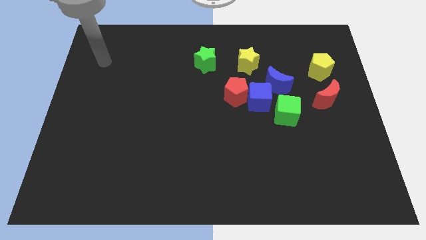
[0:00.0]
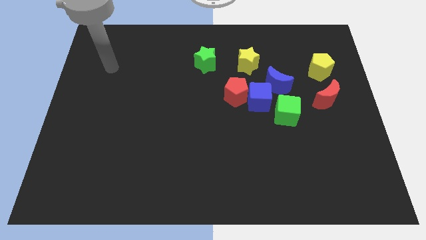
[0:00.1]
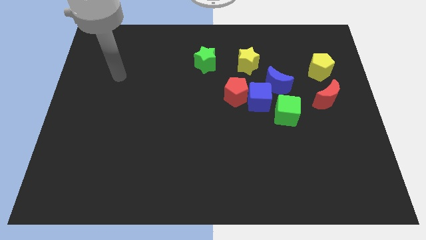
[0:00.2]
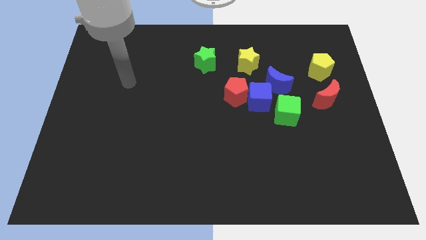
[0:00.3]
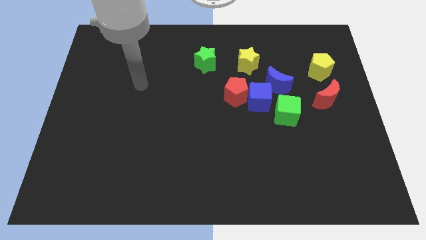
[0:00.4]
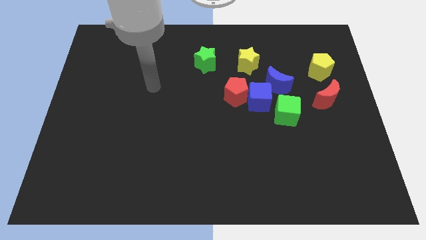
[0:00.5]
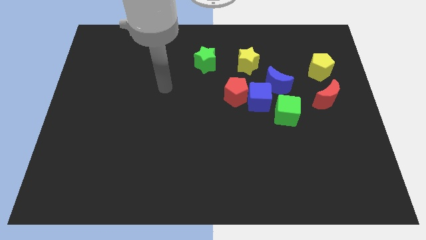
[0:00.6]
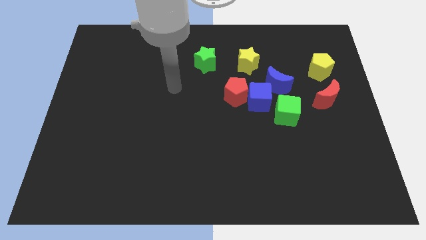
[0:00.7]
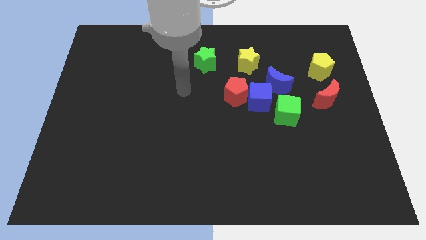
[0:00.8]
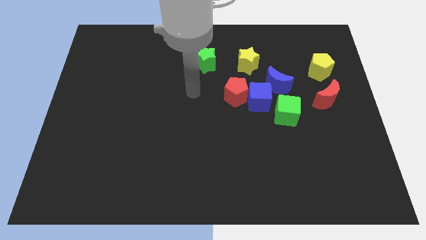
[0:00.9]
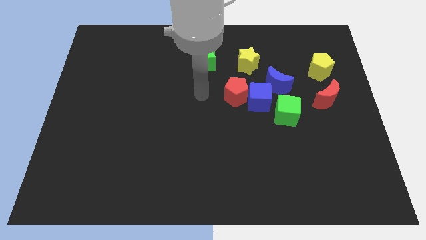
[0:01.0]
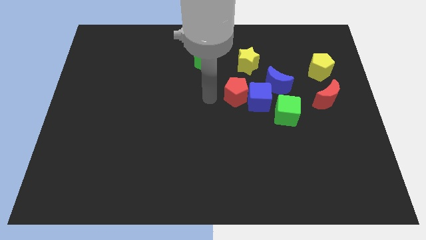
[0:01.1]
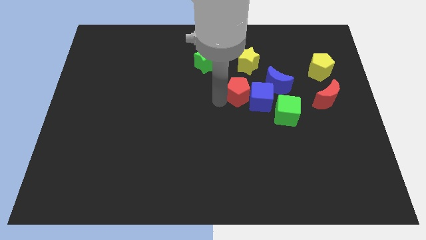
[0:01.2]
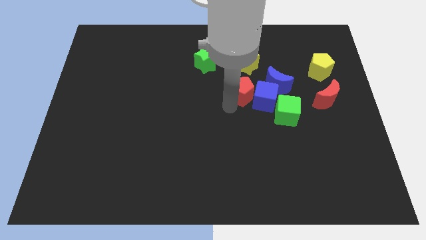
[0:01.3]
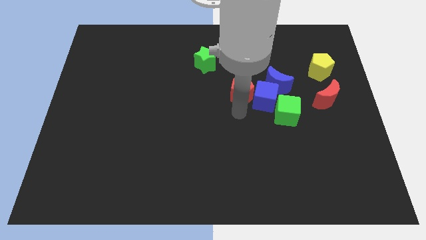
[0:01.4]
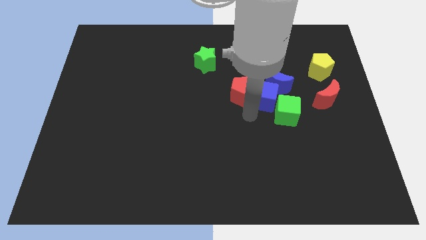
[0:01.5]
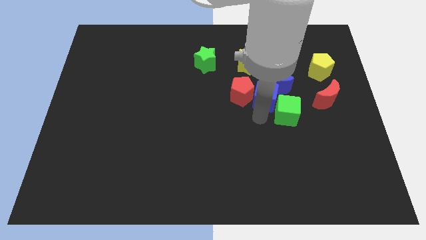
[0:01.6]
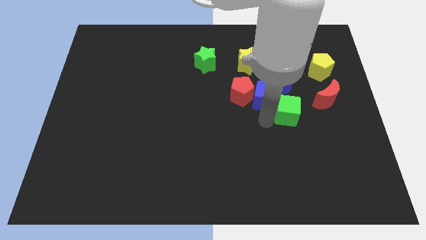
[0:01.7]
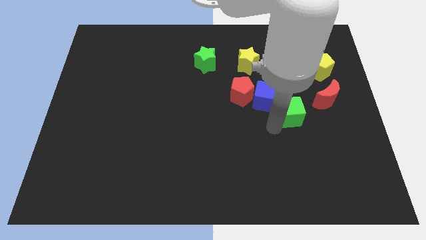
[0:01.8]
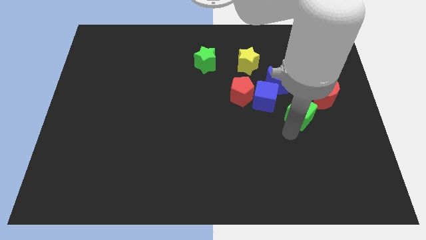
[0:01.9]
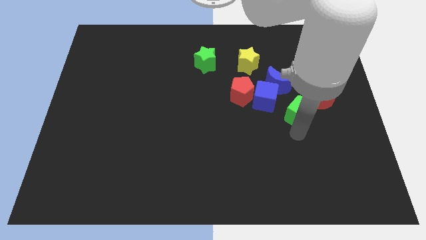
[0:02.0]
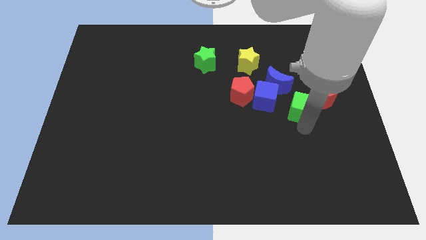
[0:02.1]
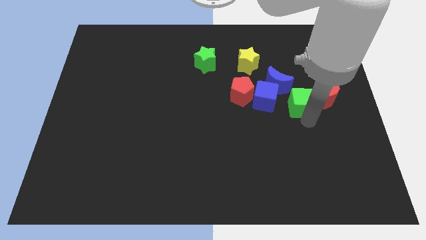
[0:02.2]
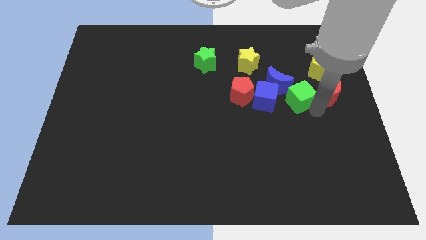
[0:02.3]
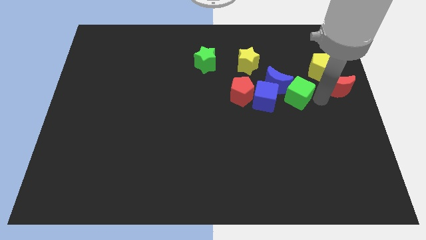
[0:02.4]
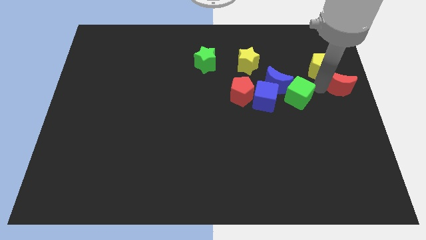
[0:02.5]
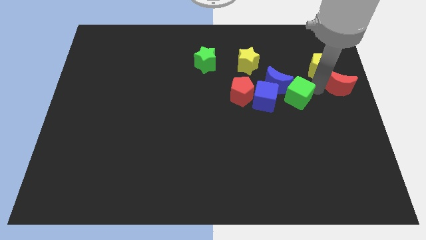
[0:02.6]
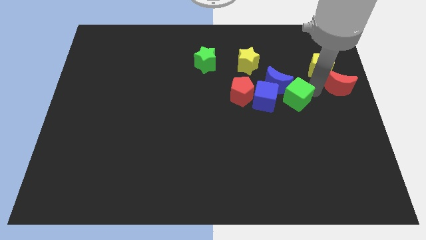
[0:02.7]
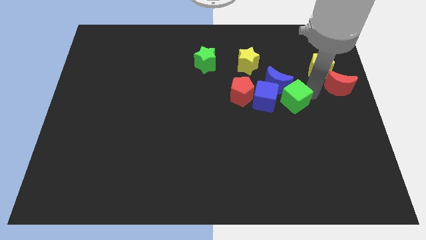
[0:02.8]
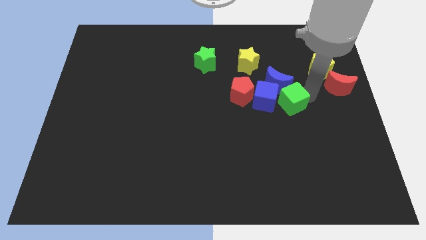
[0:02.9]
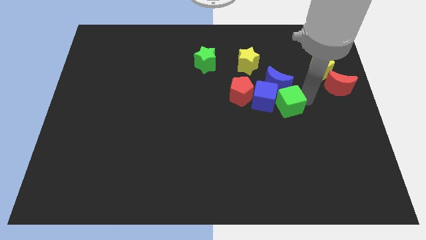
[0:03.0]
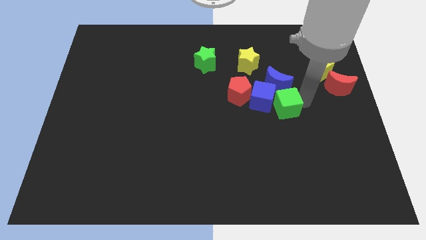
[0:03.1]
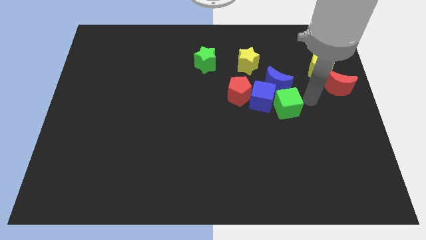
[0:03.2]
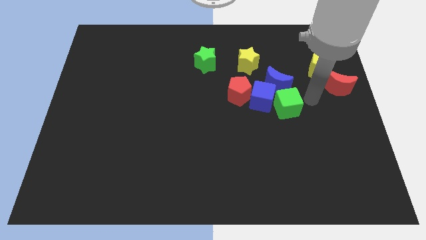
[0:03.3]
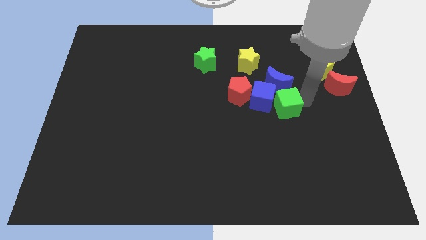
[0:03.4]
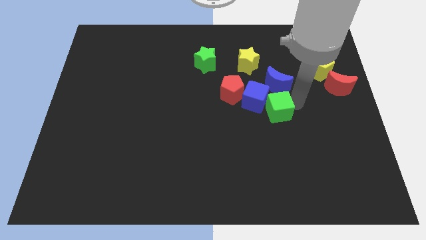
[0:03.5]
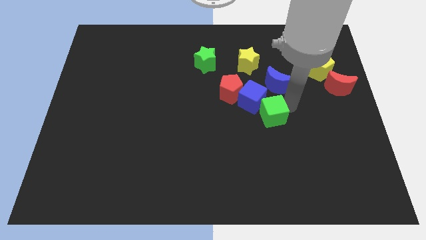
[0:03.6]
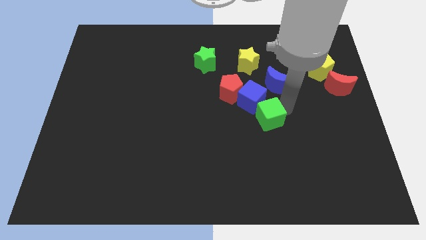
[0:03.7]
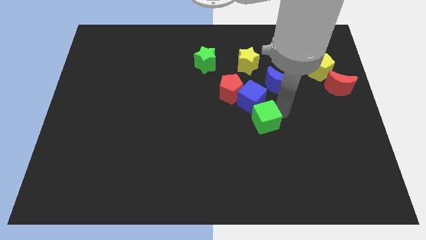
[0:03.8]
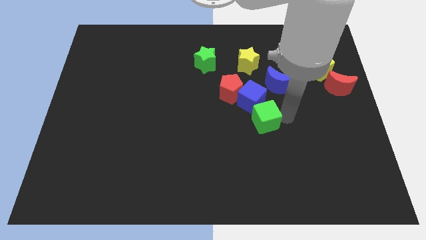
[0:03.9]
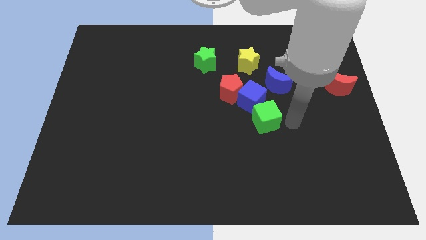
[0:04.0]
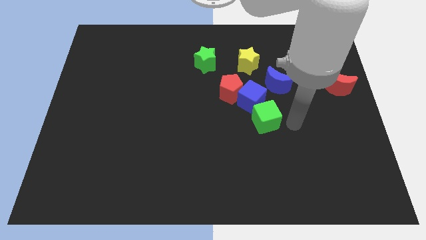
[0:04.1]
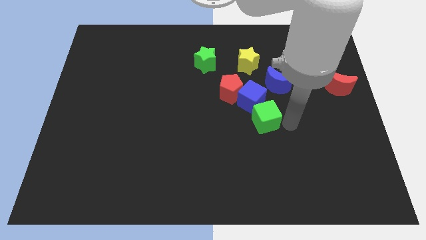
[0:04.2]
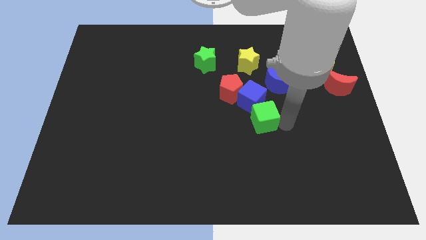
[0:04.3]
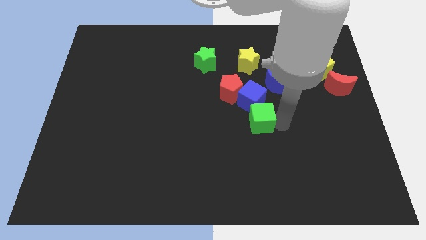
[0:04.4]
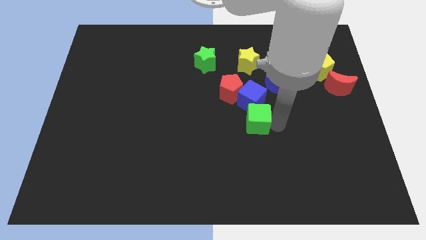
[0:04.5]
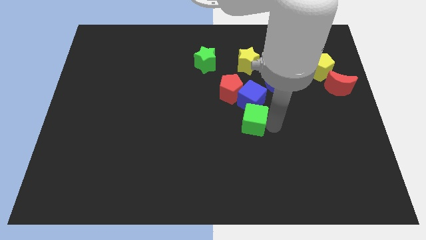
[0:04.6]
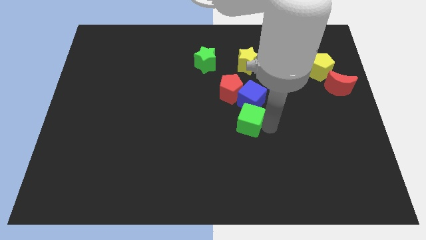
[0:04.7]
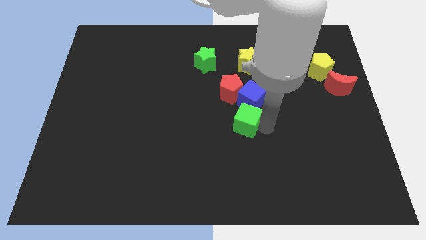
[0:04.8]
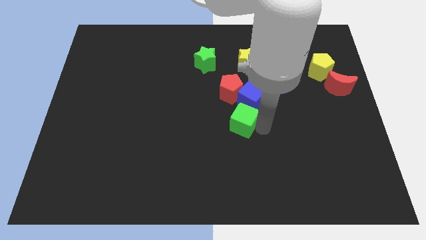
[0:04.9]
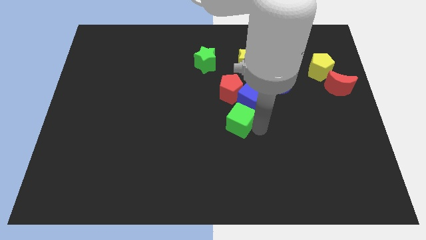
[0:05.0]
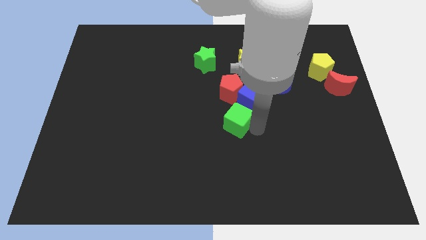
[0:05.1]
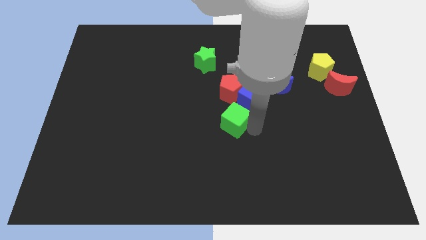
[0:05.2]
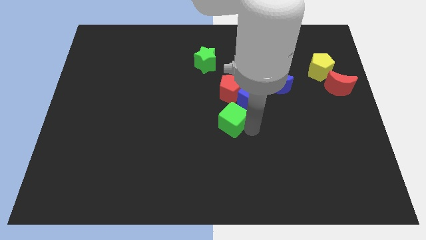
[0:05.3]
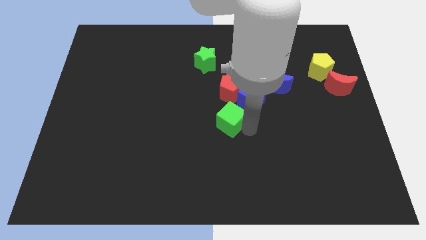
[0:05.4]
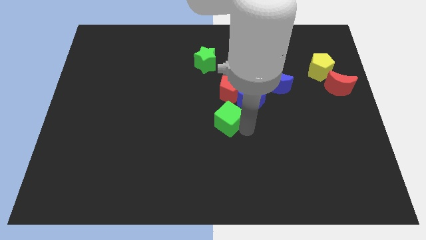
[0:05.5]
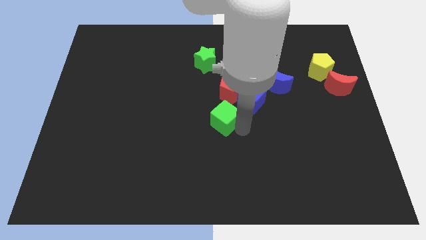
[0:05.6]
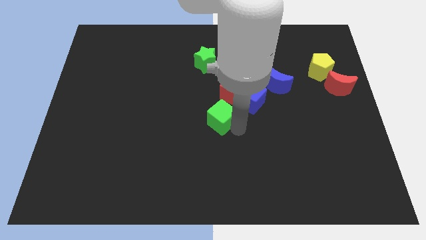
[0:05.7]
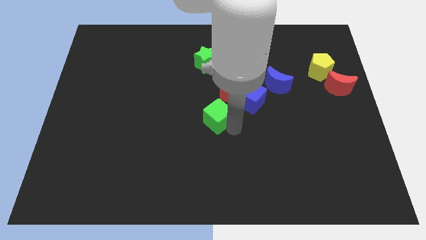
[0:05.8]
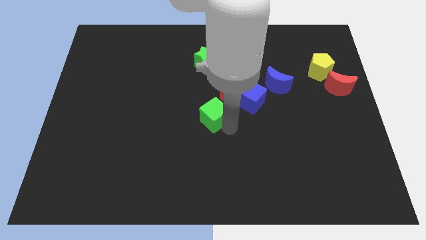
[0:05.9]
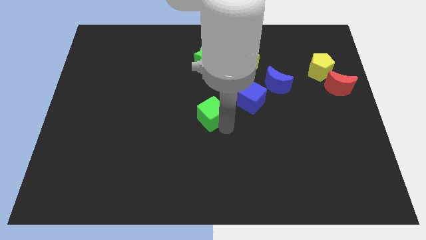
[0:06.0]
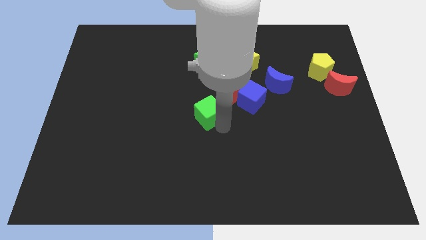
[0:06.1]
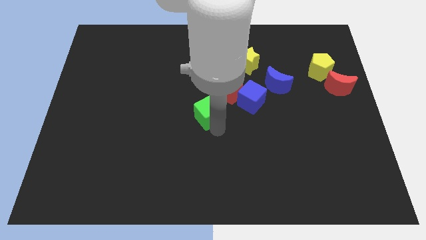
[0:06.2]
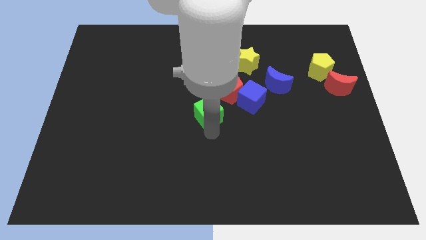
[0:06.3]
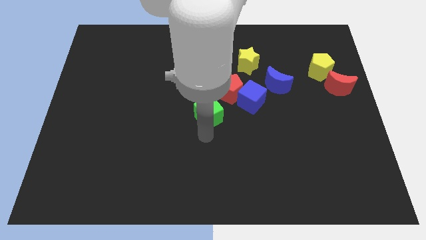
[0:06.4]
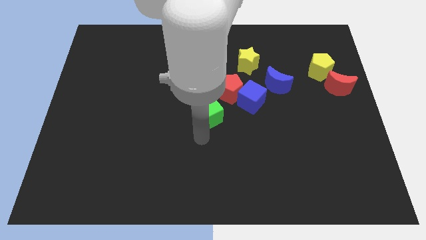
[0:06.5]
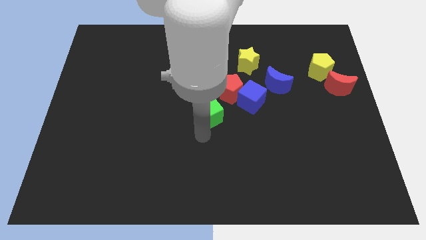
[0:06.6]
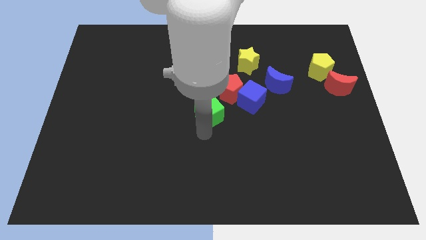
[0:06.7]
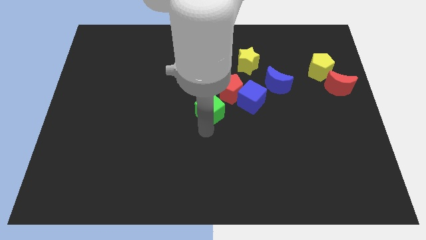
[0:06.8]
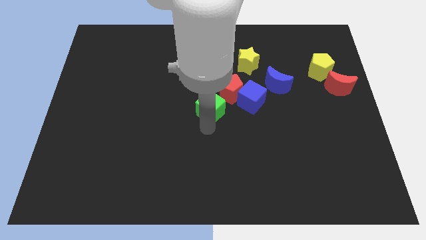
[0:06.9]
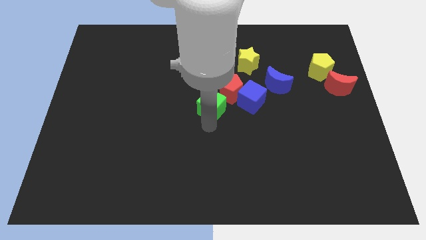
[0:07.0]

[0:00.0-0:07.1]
slide the green cube upwards and left a bit

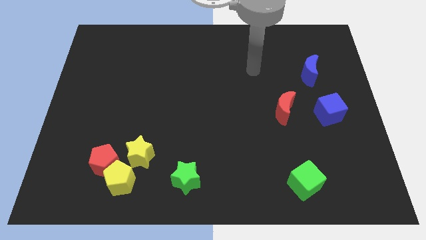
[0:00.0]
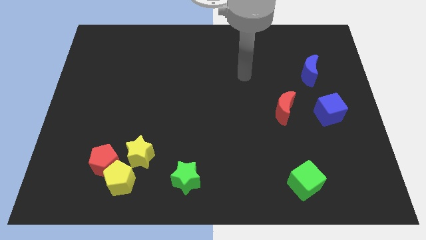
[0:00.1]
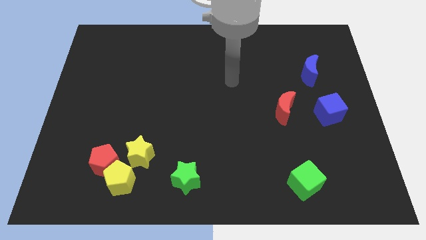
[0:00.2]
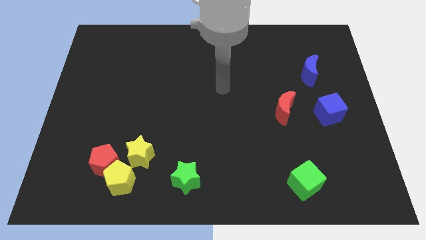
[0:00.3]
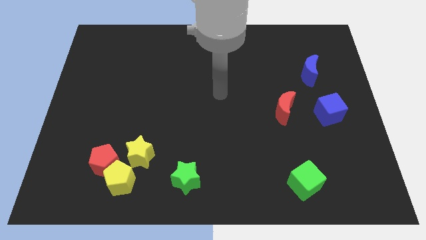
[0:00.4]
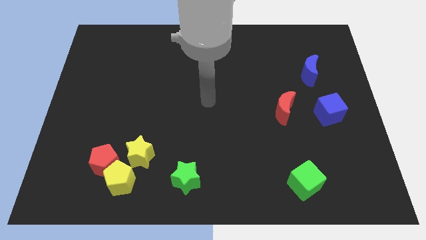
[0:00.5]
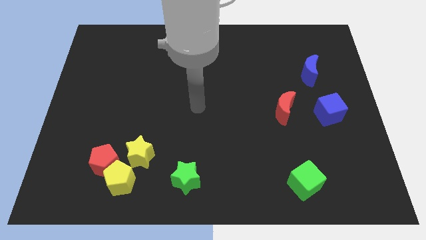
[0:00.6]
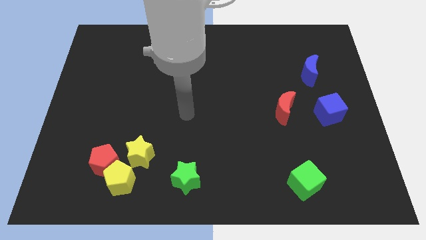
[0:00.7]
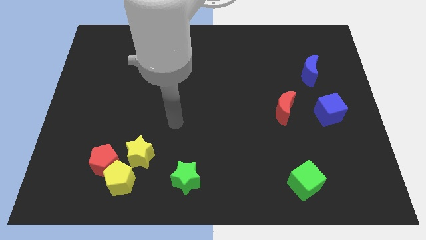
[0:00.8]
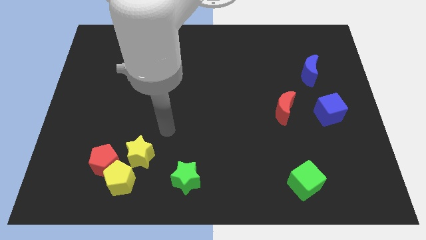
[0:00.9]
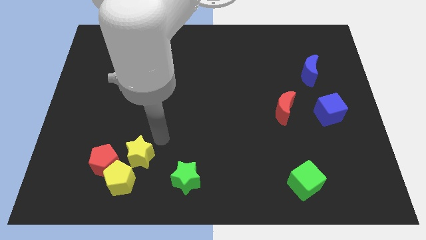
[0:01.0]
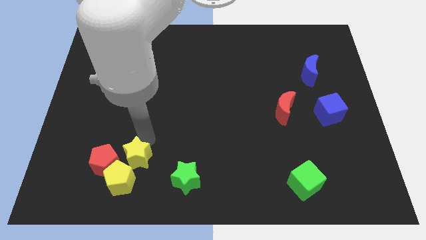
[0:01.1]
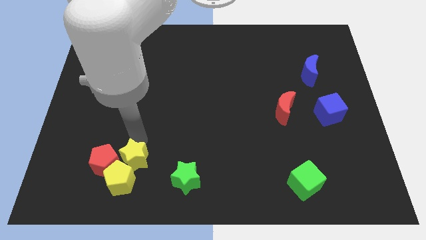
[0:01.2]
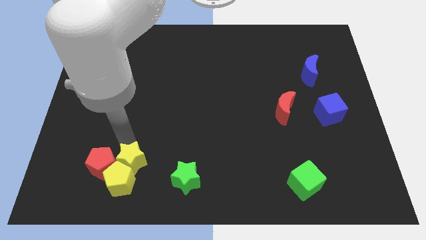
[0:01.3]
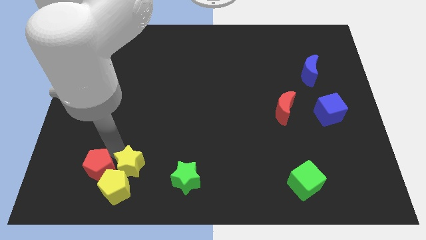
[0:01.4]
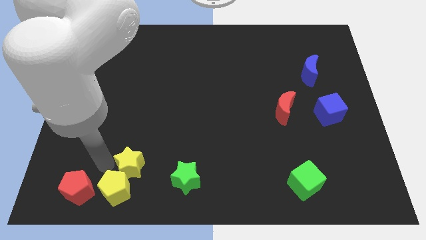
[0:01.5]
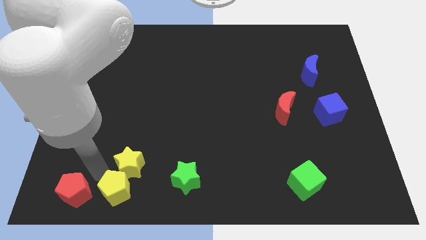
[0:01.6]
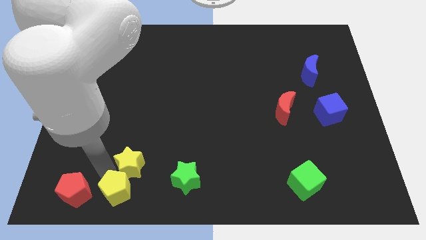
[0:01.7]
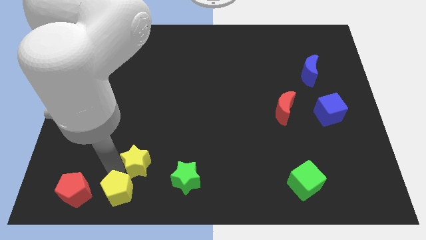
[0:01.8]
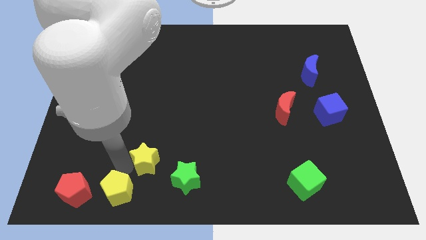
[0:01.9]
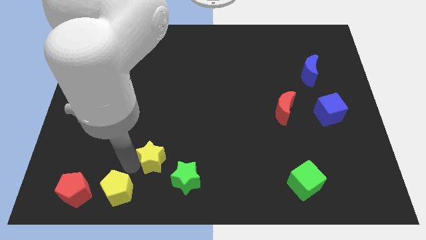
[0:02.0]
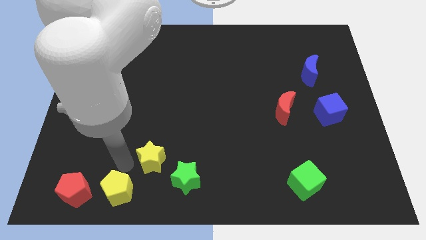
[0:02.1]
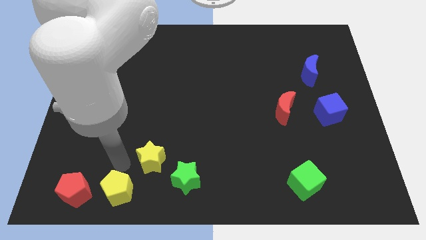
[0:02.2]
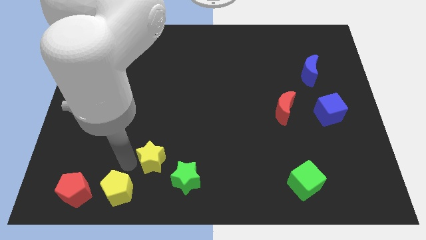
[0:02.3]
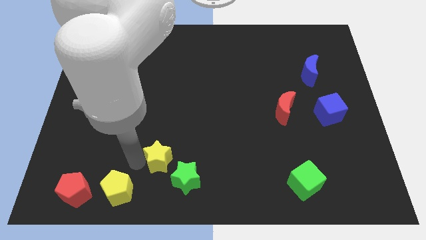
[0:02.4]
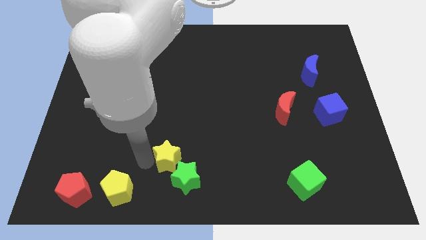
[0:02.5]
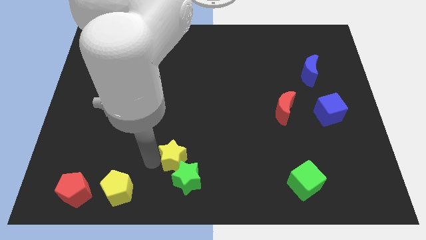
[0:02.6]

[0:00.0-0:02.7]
push the yellow star to the right a bit
